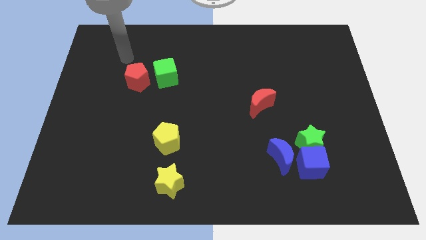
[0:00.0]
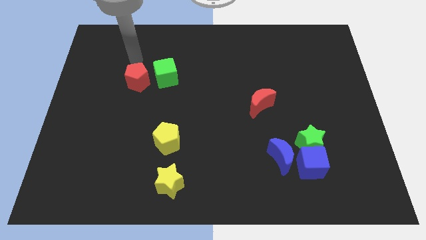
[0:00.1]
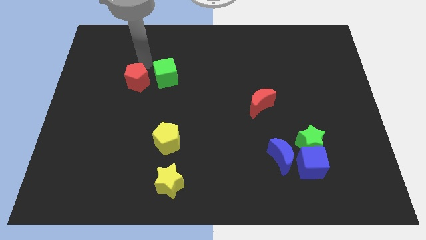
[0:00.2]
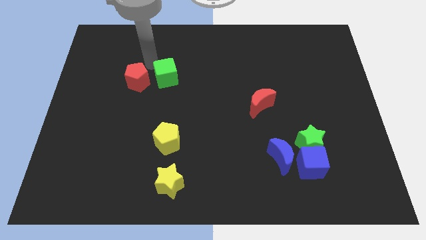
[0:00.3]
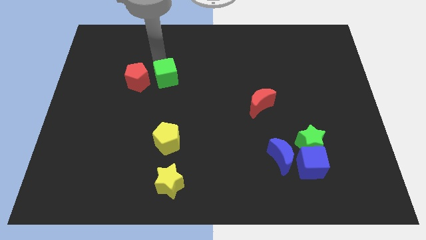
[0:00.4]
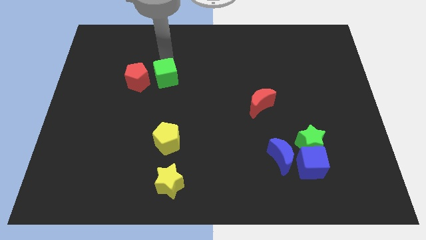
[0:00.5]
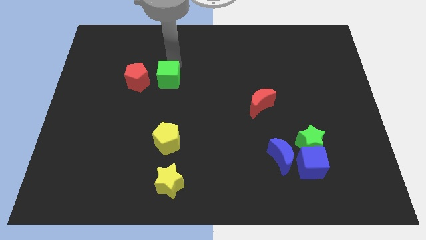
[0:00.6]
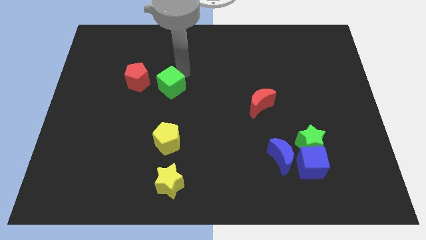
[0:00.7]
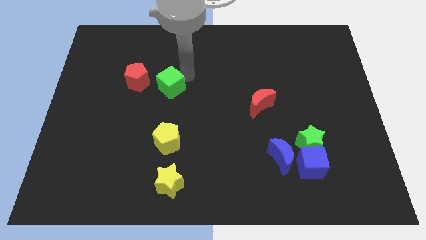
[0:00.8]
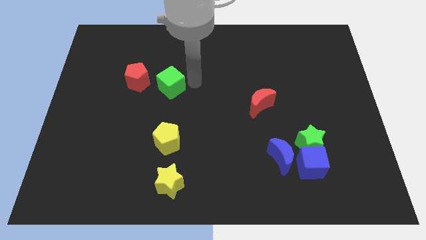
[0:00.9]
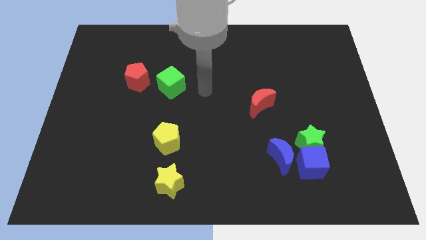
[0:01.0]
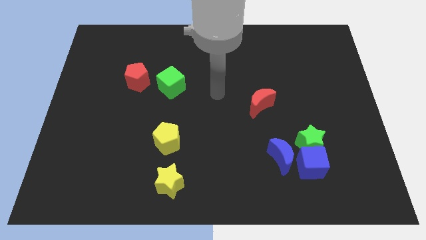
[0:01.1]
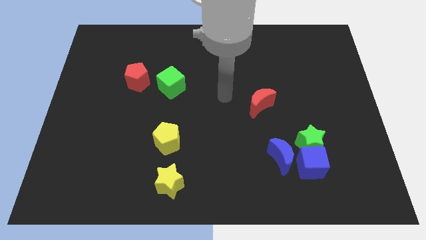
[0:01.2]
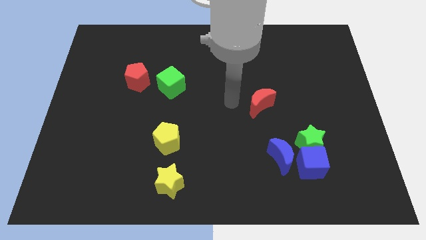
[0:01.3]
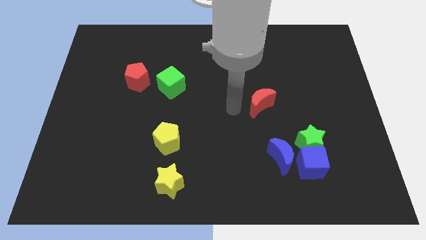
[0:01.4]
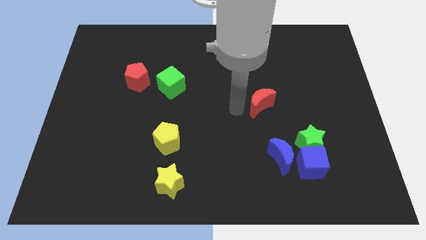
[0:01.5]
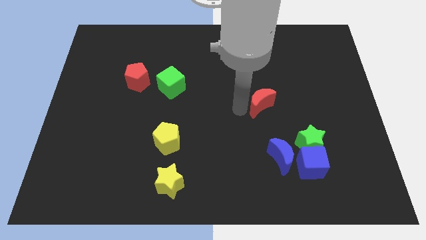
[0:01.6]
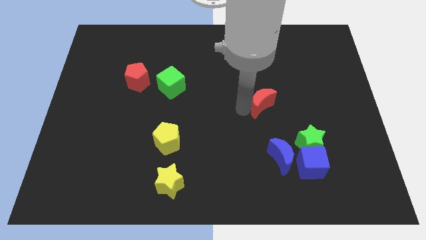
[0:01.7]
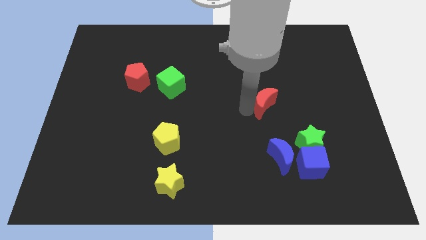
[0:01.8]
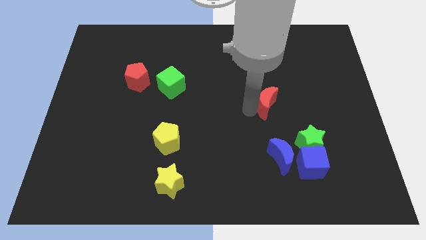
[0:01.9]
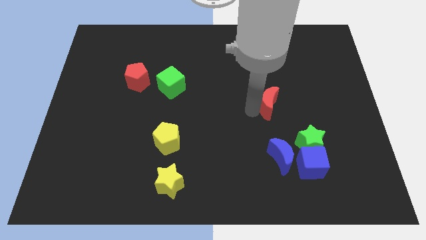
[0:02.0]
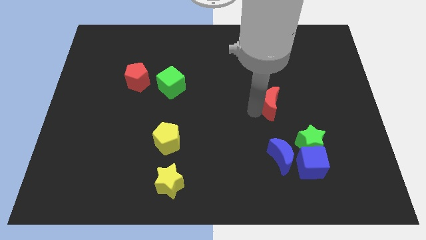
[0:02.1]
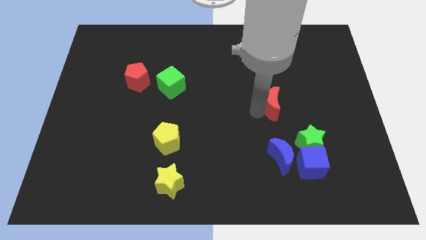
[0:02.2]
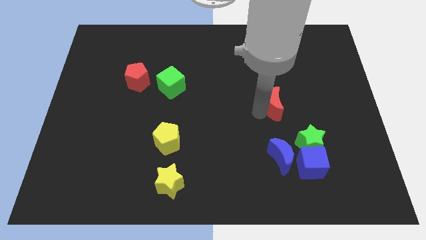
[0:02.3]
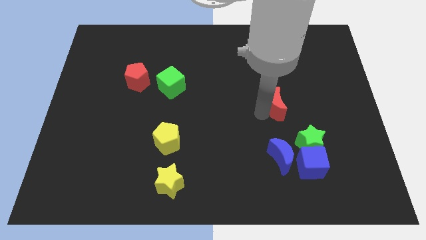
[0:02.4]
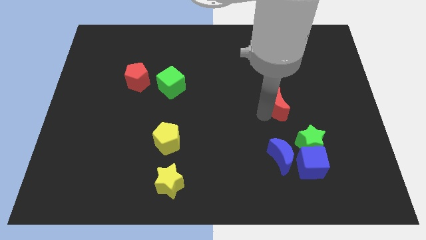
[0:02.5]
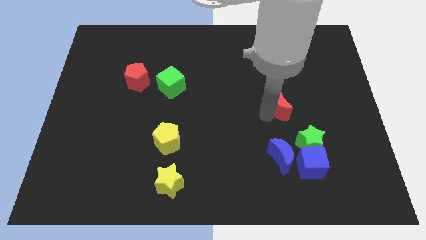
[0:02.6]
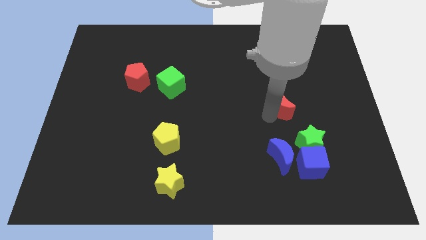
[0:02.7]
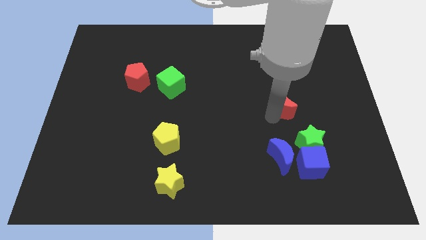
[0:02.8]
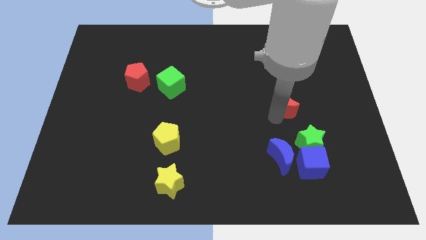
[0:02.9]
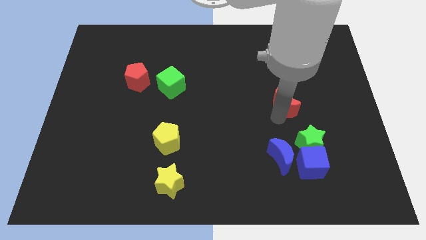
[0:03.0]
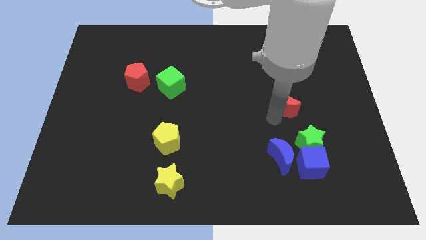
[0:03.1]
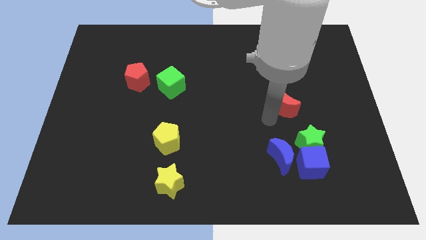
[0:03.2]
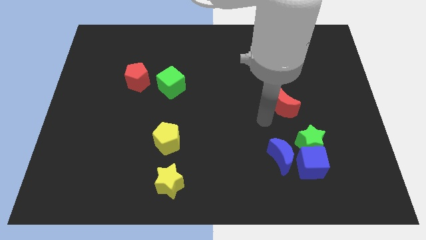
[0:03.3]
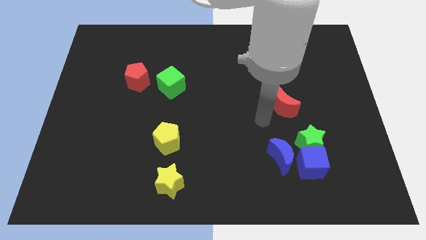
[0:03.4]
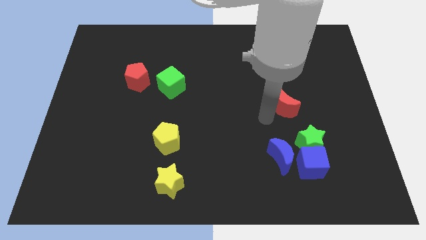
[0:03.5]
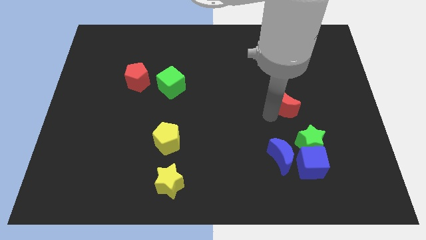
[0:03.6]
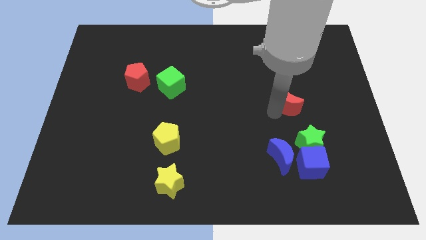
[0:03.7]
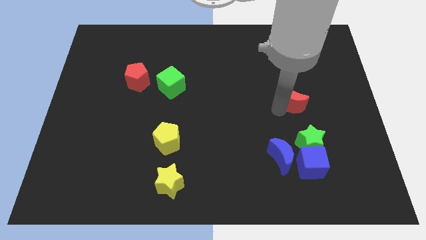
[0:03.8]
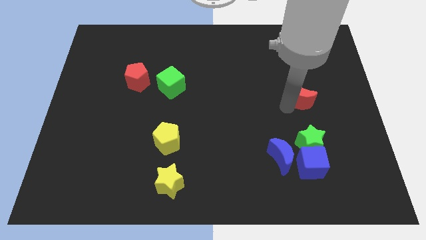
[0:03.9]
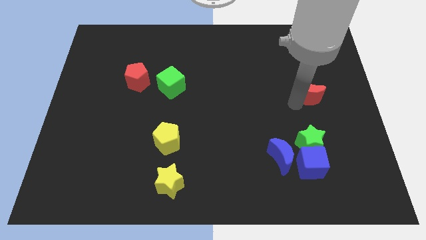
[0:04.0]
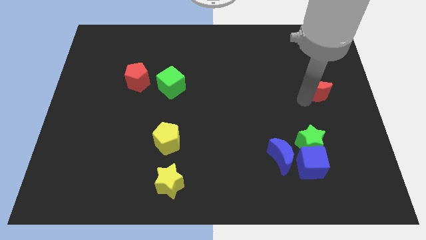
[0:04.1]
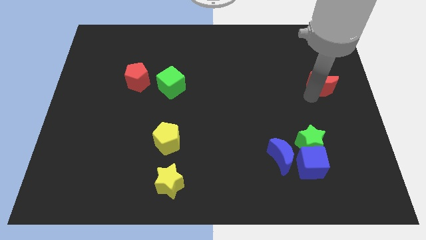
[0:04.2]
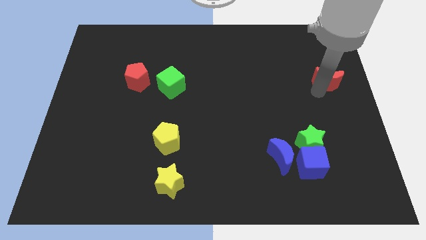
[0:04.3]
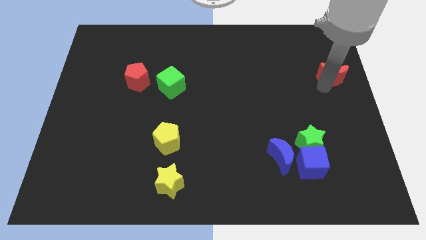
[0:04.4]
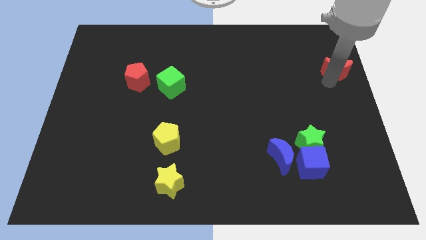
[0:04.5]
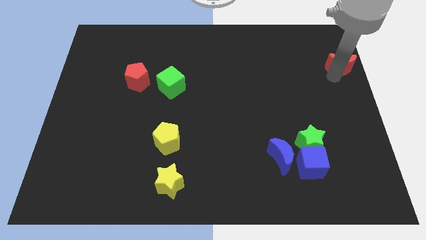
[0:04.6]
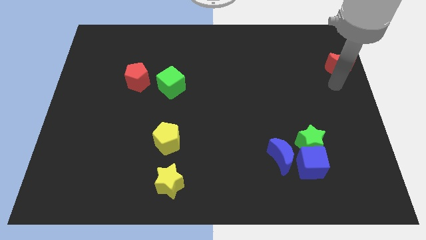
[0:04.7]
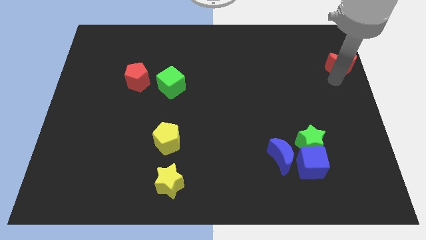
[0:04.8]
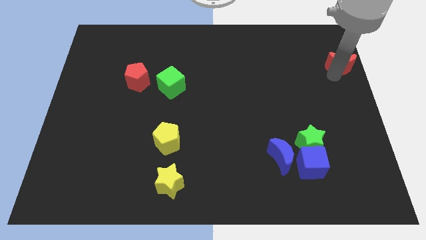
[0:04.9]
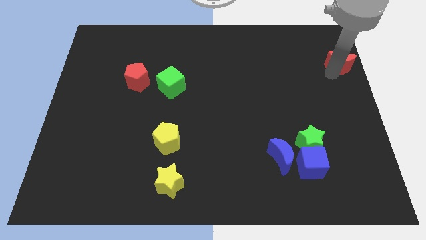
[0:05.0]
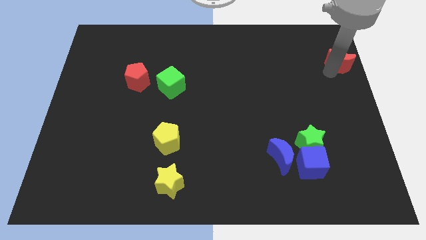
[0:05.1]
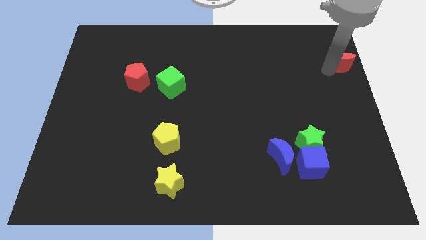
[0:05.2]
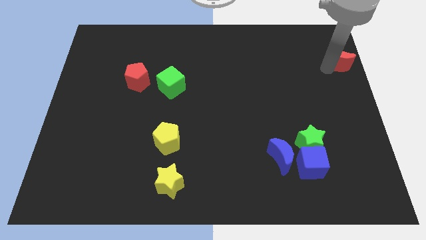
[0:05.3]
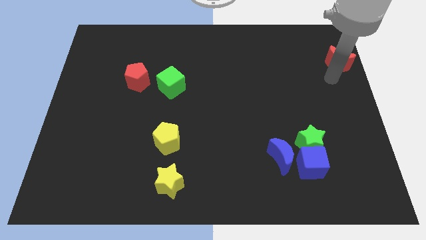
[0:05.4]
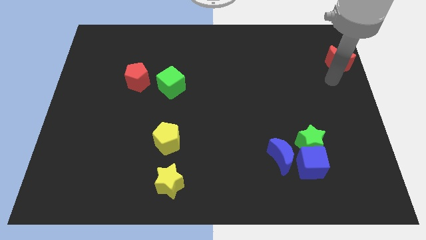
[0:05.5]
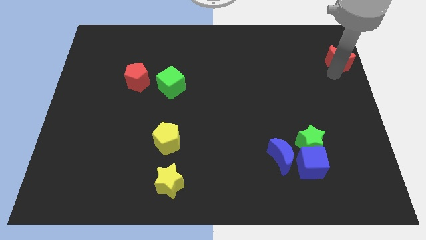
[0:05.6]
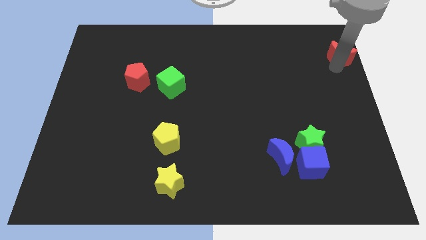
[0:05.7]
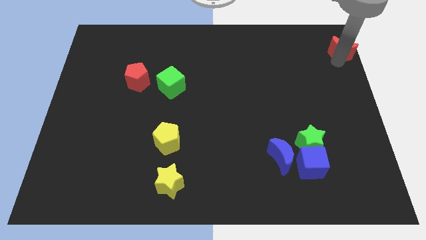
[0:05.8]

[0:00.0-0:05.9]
put the red moon to the upper right corner
